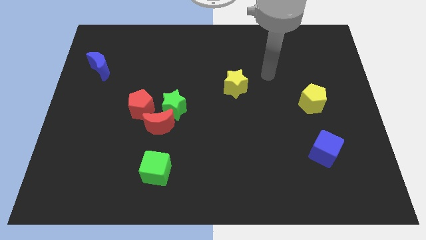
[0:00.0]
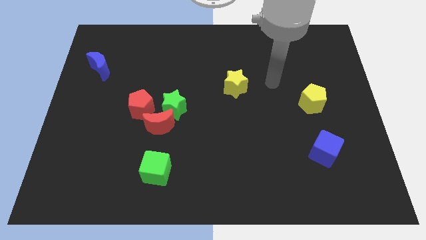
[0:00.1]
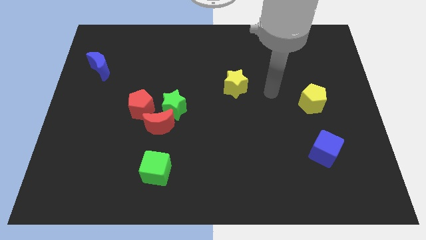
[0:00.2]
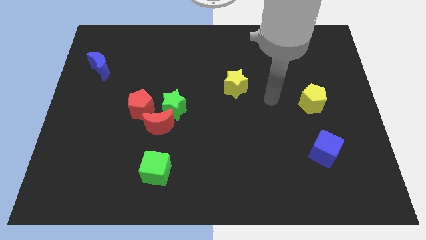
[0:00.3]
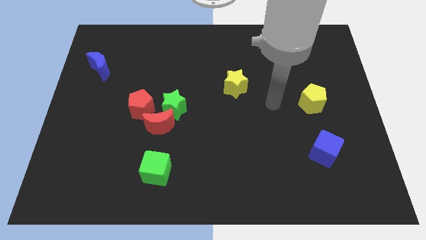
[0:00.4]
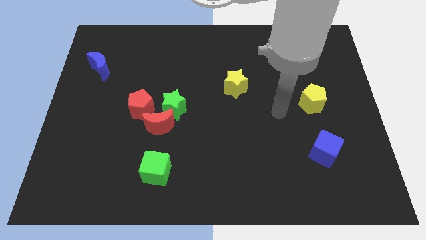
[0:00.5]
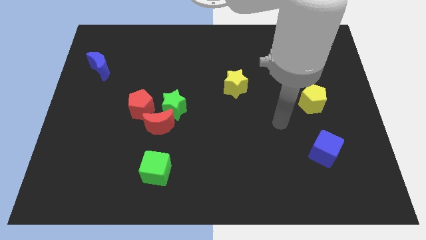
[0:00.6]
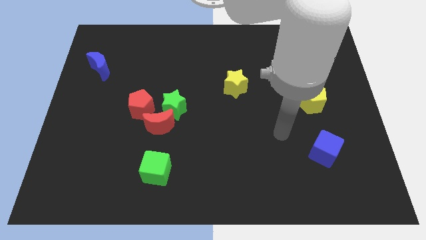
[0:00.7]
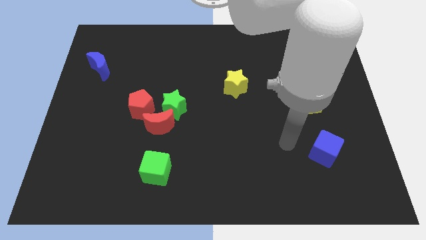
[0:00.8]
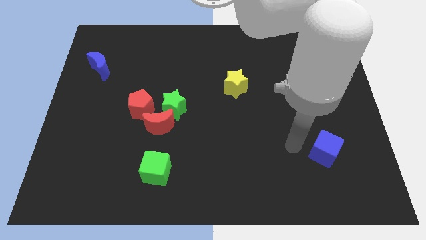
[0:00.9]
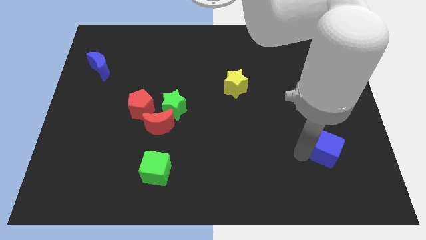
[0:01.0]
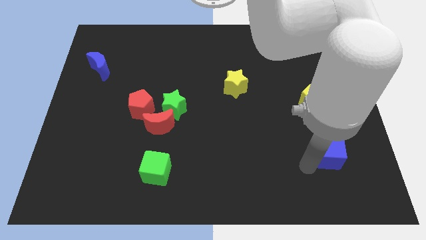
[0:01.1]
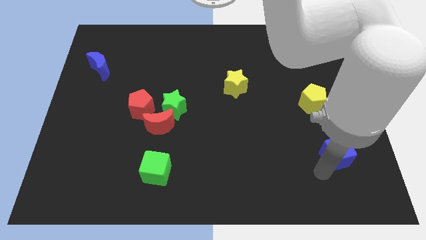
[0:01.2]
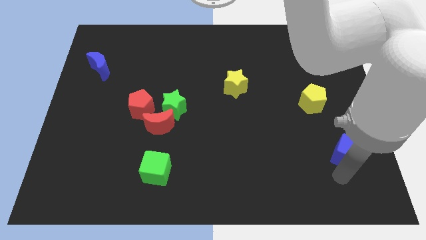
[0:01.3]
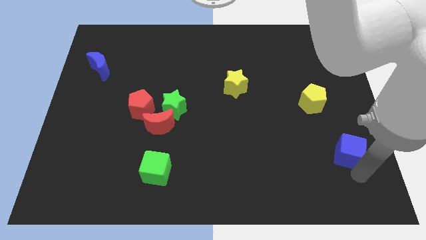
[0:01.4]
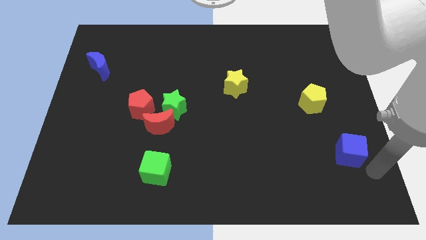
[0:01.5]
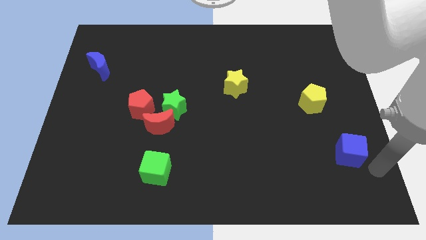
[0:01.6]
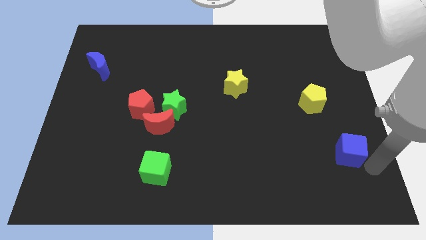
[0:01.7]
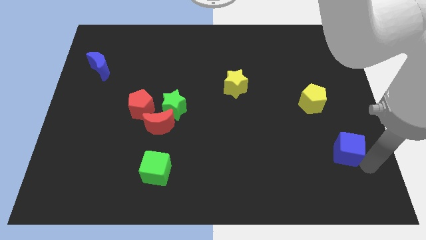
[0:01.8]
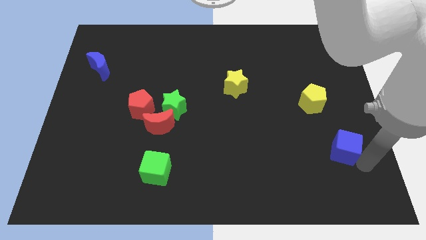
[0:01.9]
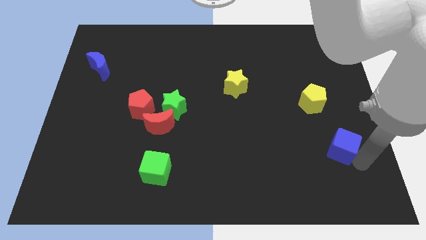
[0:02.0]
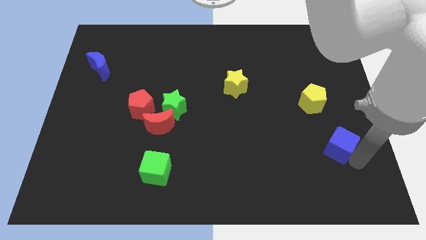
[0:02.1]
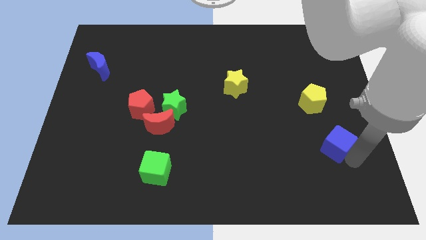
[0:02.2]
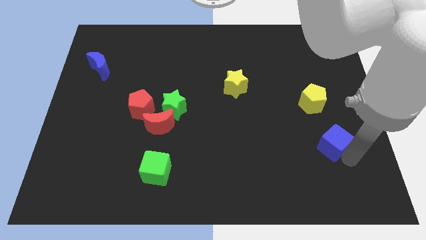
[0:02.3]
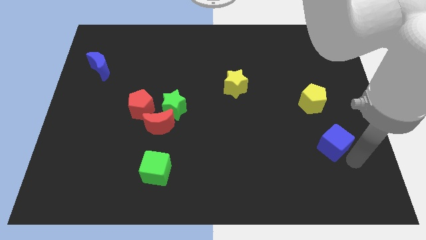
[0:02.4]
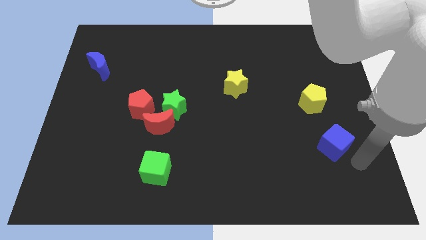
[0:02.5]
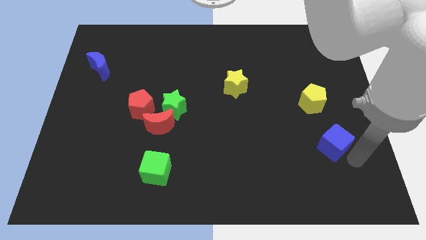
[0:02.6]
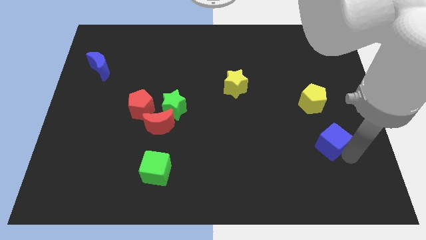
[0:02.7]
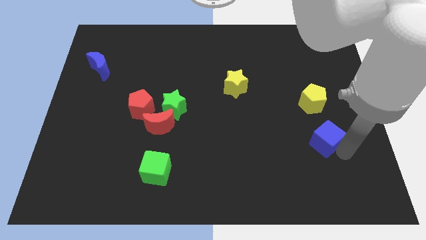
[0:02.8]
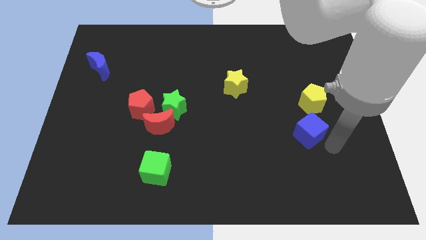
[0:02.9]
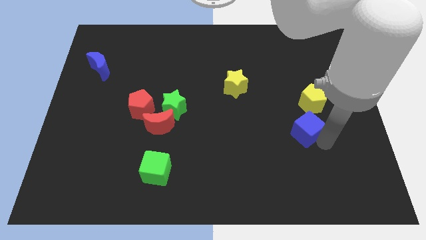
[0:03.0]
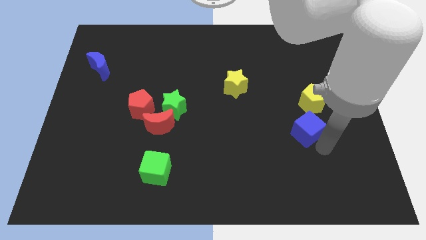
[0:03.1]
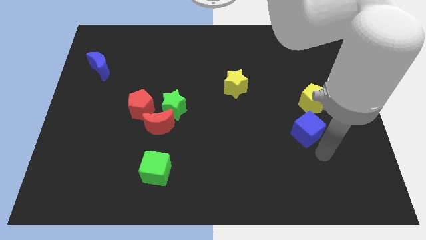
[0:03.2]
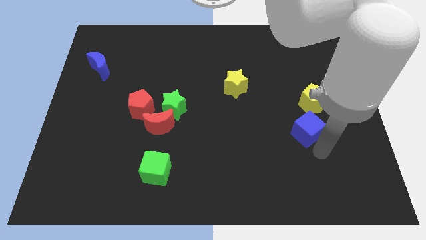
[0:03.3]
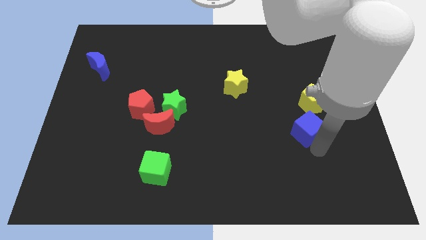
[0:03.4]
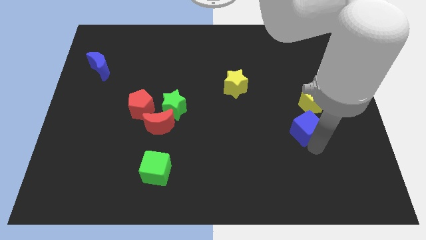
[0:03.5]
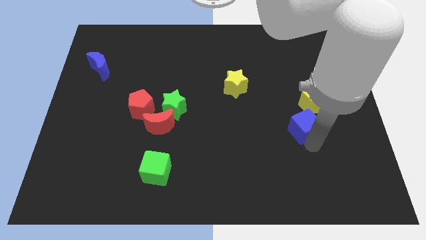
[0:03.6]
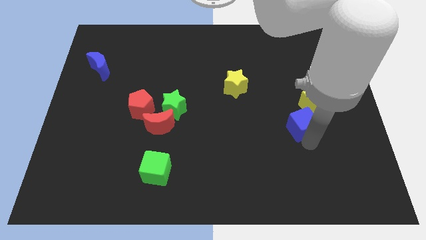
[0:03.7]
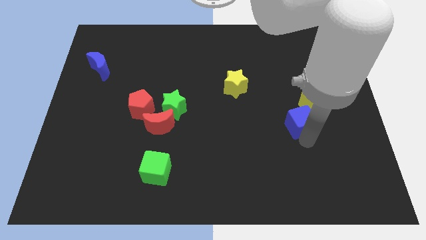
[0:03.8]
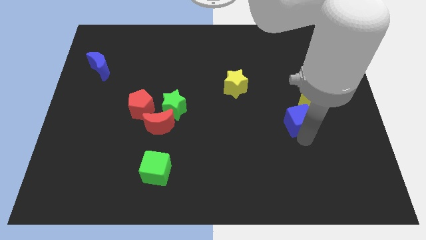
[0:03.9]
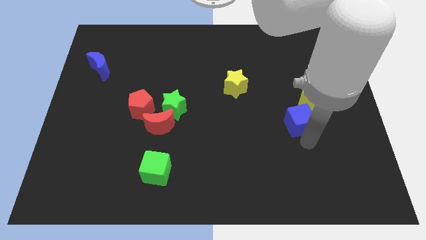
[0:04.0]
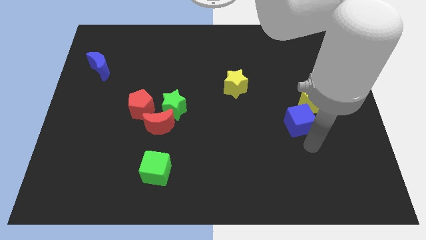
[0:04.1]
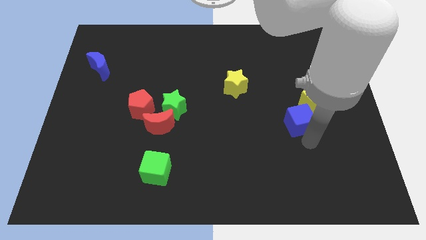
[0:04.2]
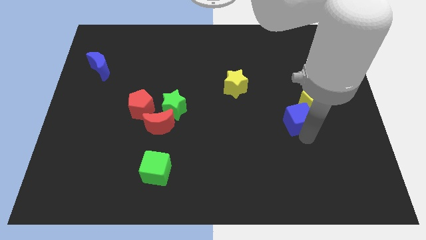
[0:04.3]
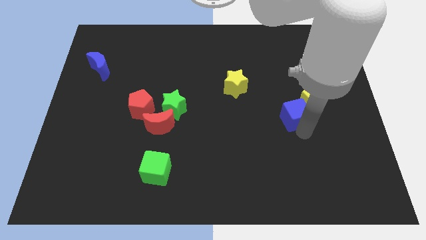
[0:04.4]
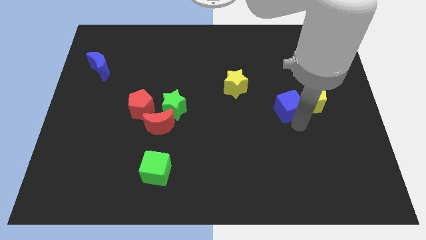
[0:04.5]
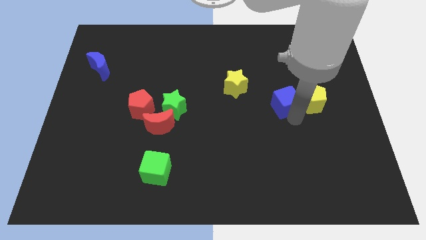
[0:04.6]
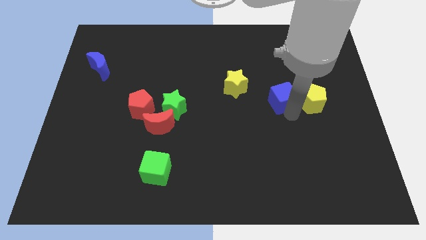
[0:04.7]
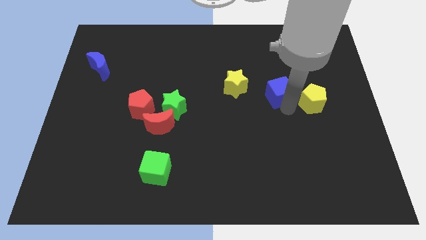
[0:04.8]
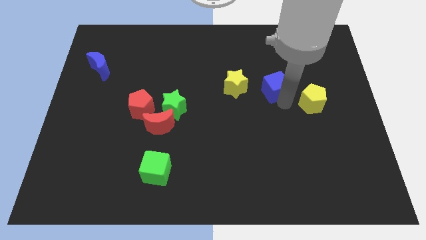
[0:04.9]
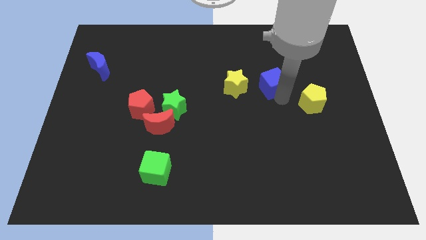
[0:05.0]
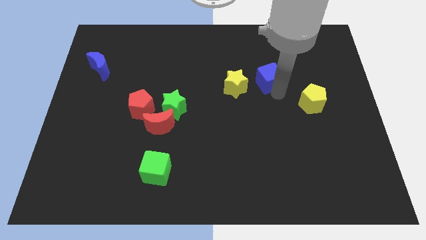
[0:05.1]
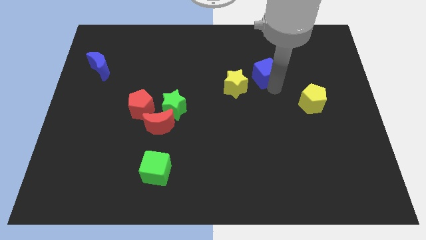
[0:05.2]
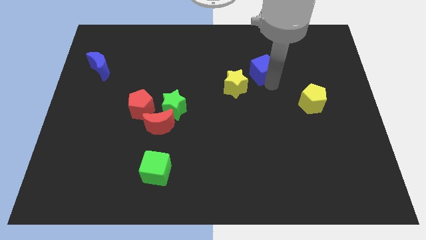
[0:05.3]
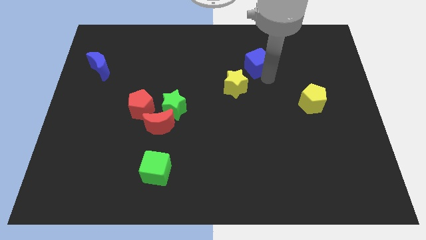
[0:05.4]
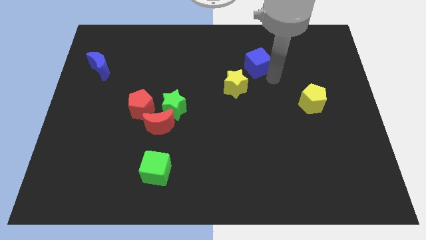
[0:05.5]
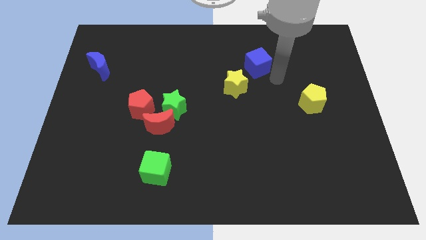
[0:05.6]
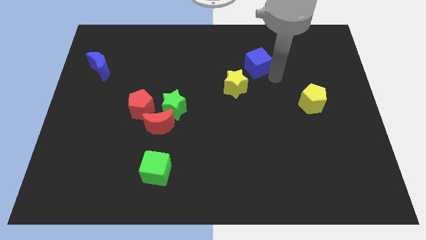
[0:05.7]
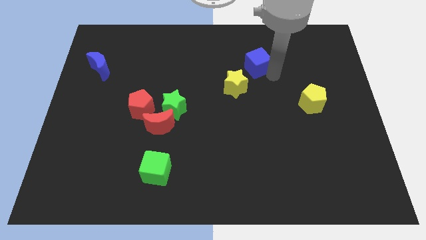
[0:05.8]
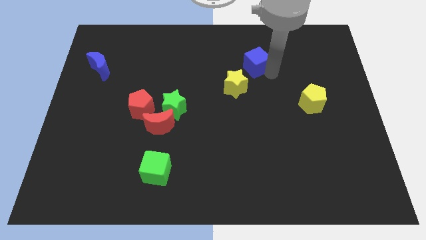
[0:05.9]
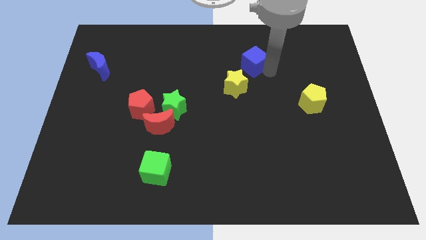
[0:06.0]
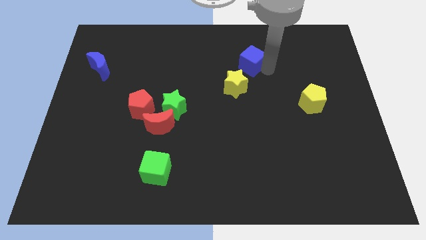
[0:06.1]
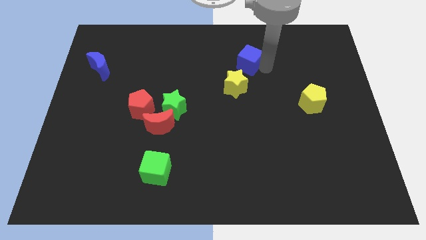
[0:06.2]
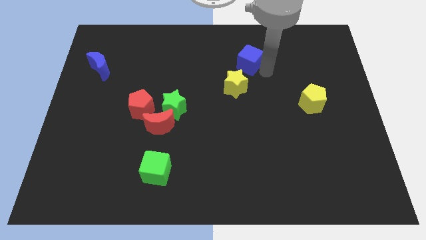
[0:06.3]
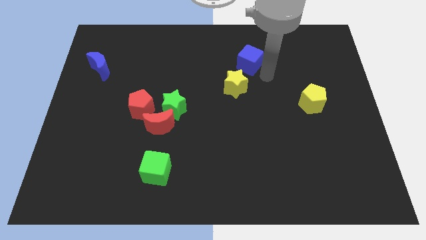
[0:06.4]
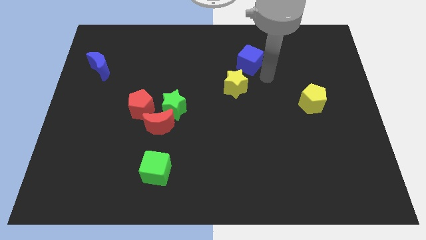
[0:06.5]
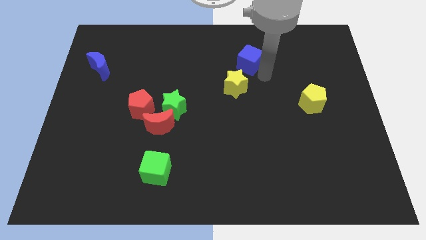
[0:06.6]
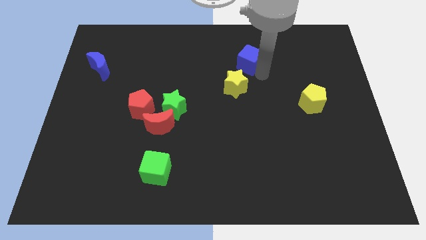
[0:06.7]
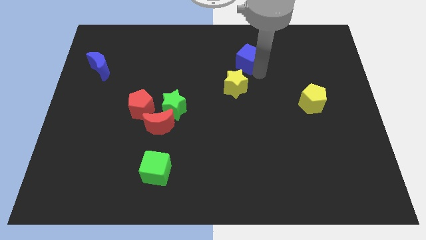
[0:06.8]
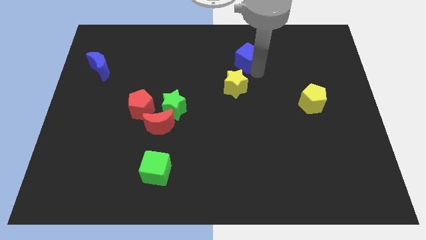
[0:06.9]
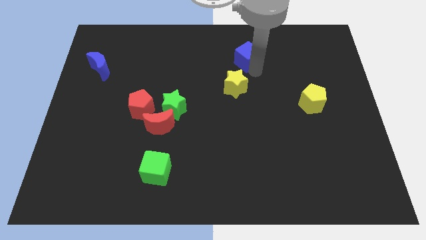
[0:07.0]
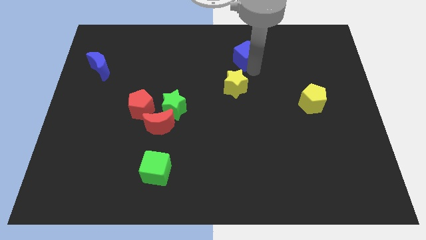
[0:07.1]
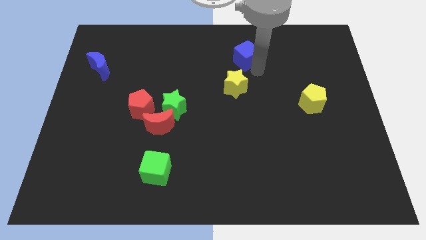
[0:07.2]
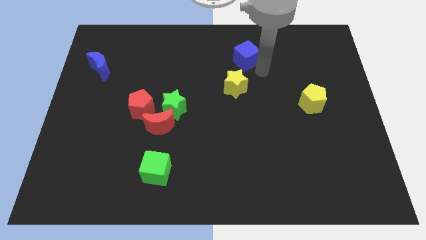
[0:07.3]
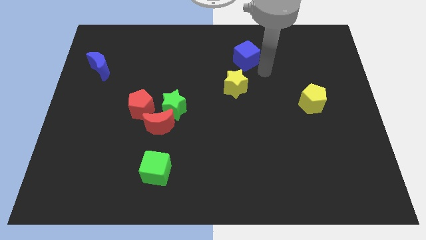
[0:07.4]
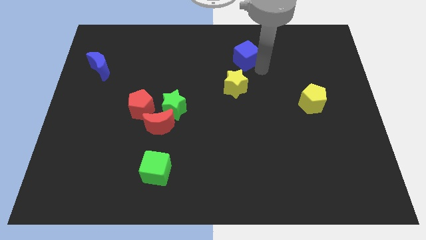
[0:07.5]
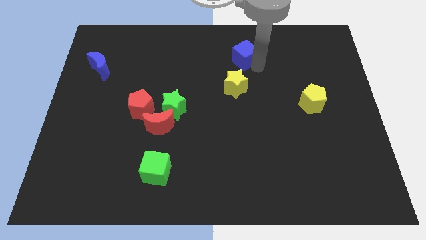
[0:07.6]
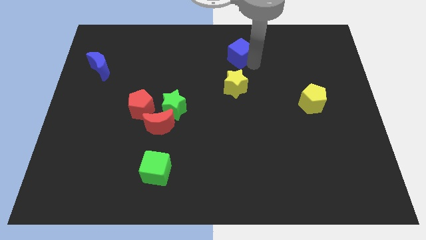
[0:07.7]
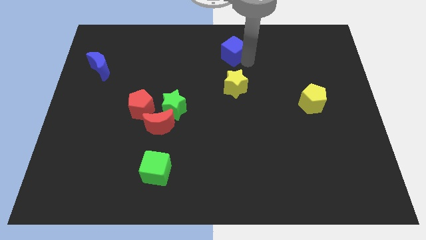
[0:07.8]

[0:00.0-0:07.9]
move the blue cube to the towards your base
